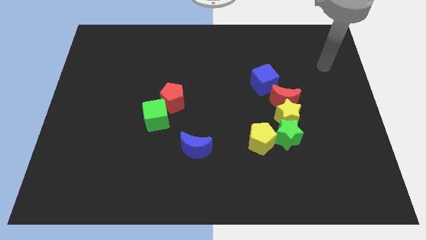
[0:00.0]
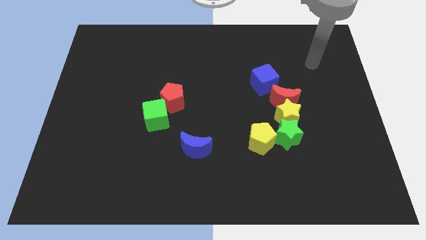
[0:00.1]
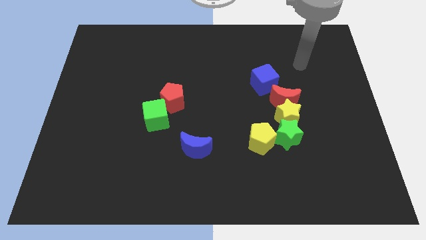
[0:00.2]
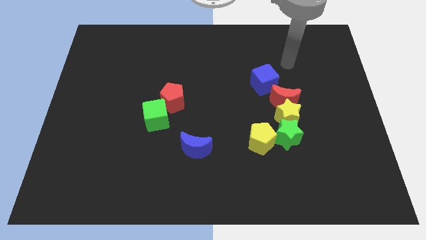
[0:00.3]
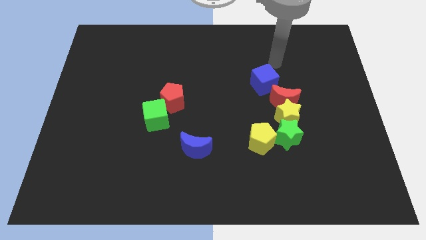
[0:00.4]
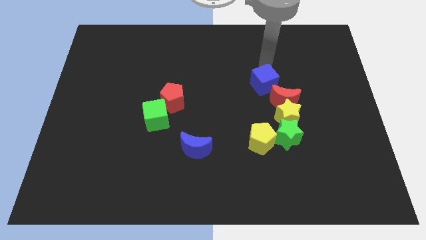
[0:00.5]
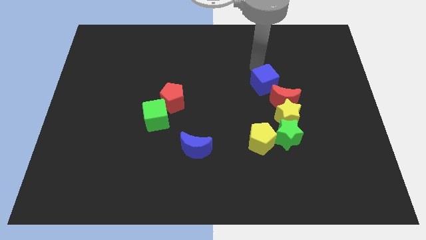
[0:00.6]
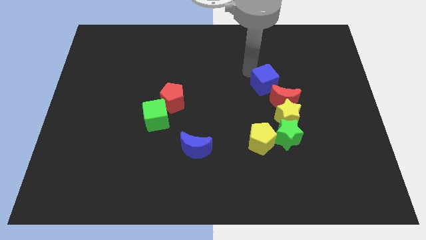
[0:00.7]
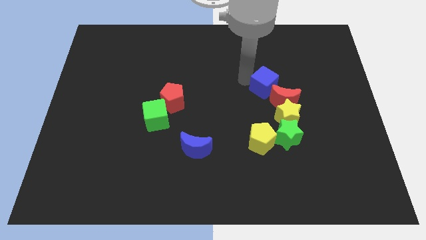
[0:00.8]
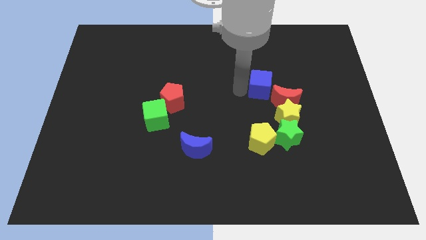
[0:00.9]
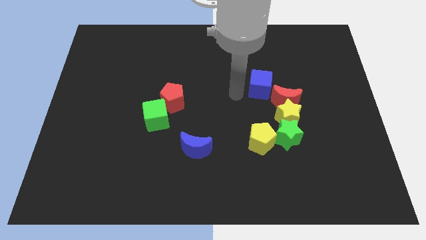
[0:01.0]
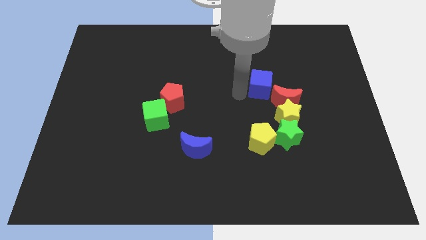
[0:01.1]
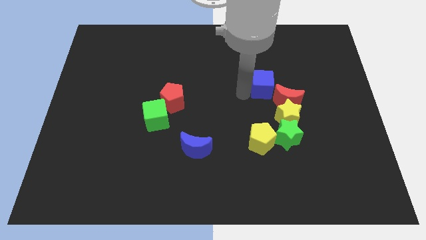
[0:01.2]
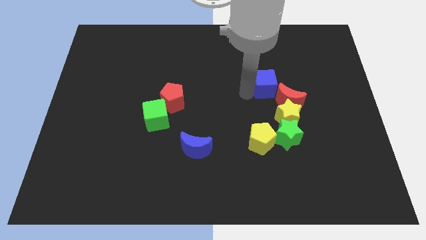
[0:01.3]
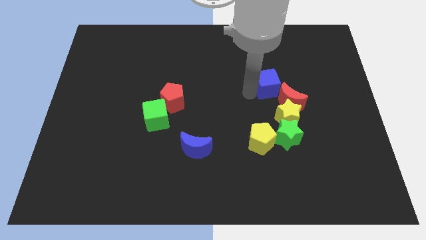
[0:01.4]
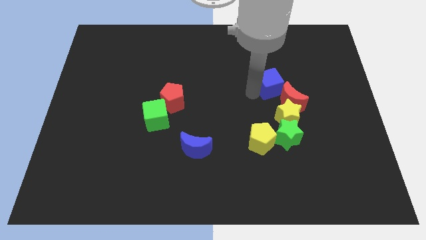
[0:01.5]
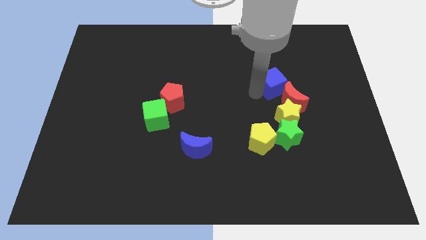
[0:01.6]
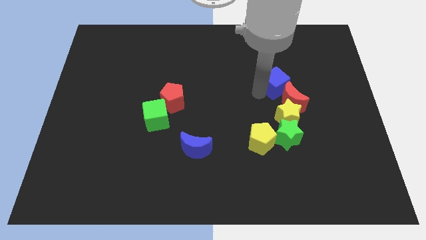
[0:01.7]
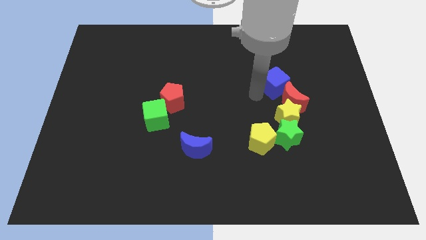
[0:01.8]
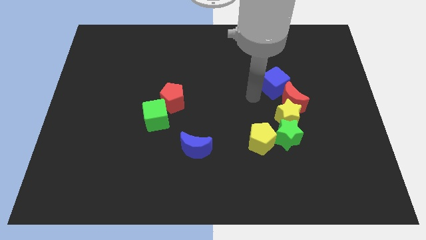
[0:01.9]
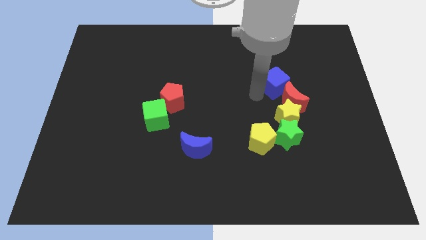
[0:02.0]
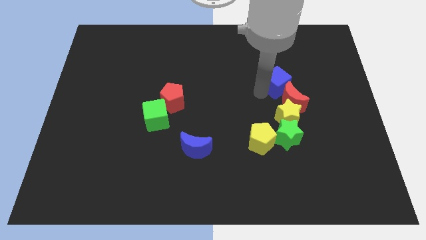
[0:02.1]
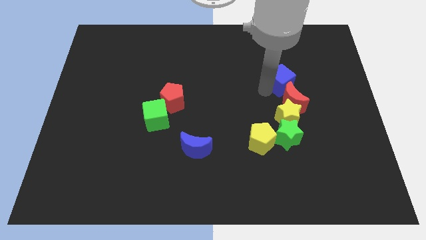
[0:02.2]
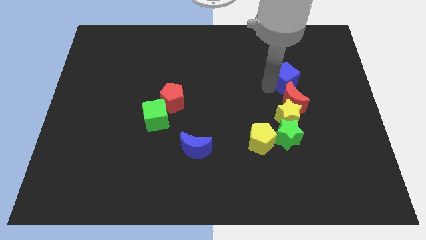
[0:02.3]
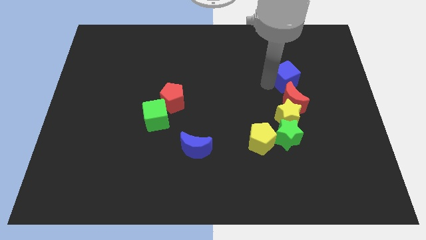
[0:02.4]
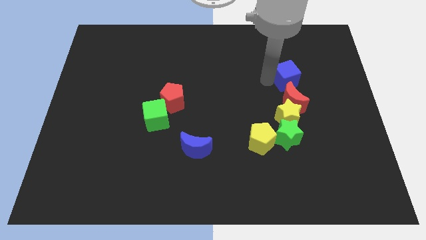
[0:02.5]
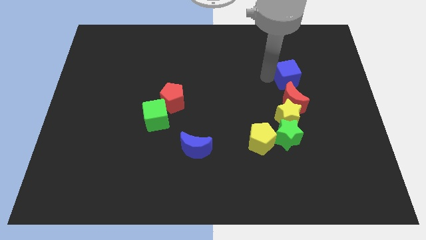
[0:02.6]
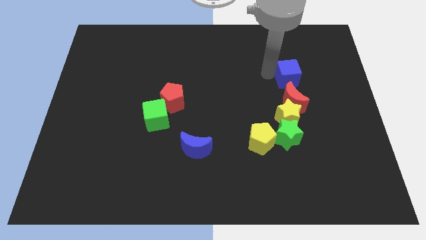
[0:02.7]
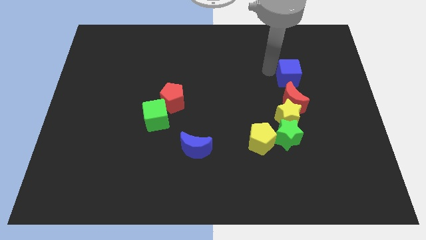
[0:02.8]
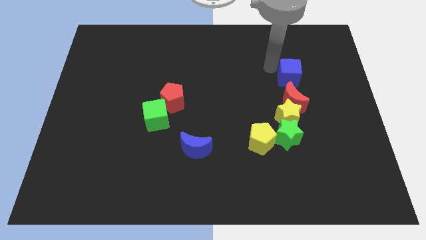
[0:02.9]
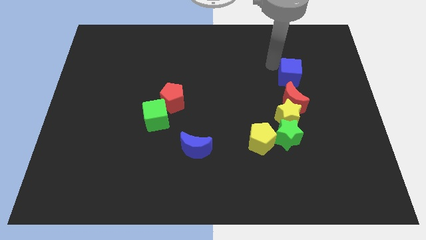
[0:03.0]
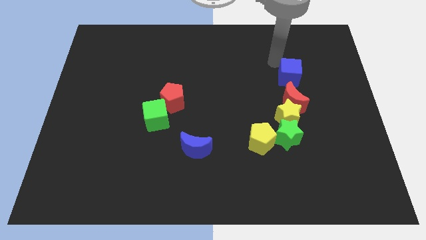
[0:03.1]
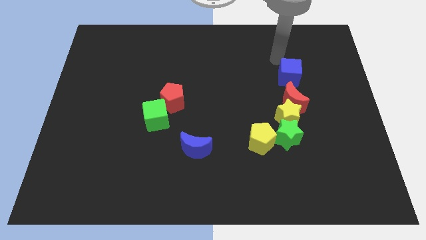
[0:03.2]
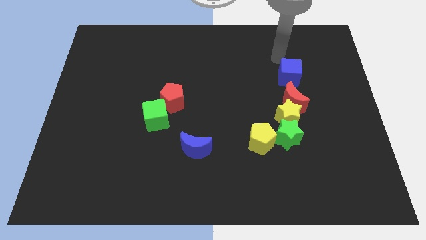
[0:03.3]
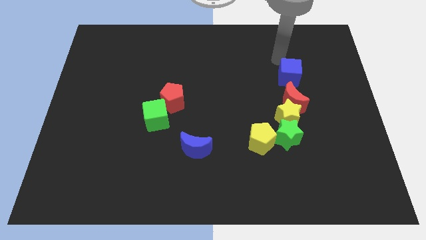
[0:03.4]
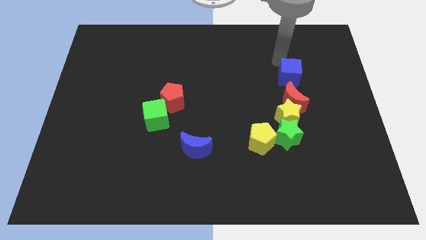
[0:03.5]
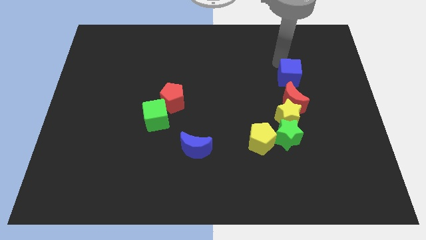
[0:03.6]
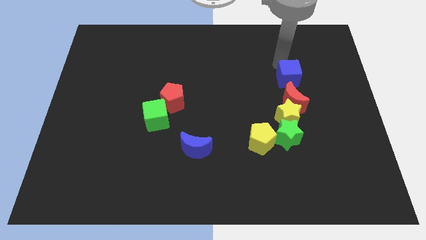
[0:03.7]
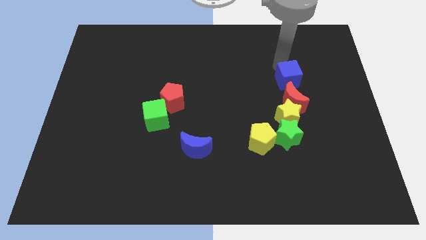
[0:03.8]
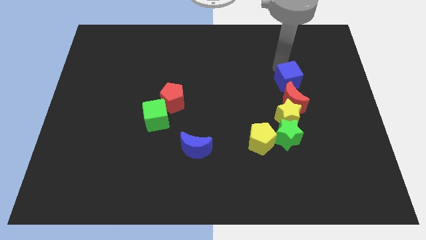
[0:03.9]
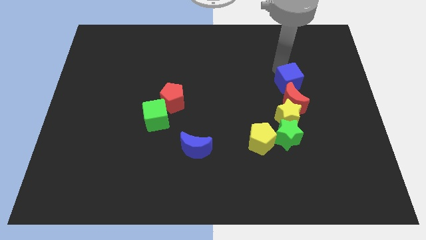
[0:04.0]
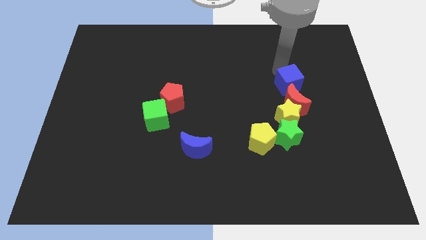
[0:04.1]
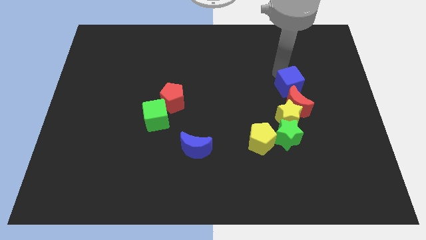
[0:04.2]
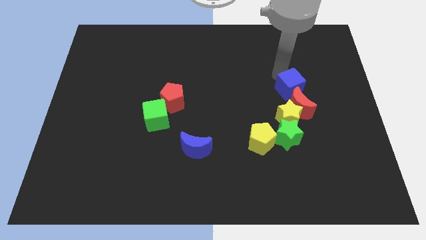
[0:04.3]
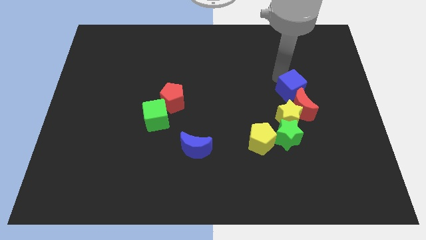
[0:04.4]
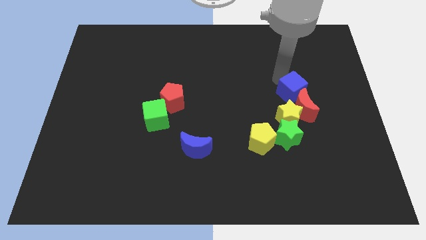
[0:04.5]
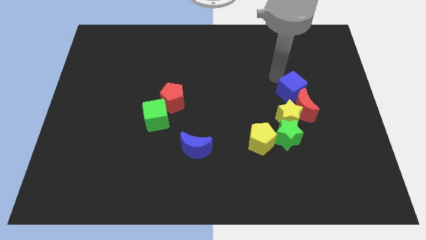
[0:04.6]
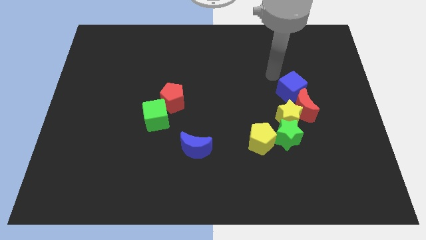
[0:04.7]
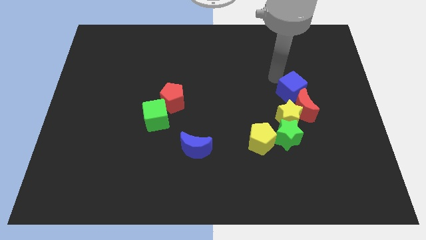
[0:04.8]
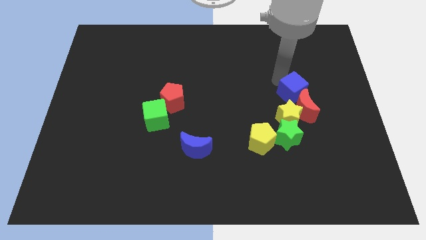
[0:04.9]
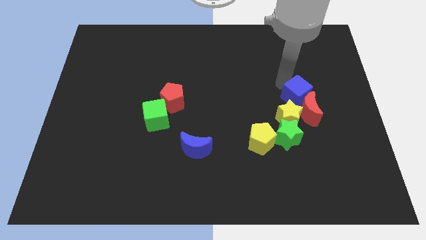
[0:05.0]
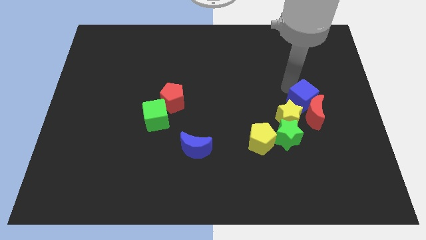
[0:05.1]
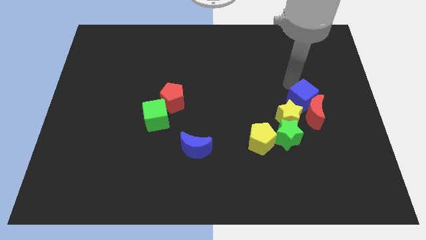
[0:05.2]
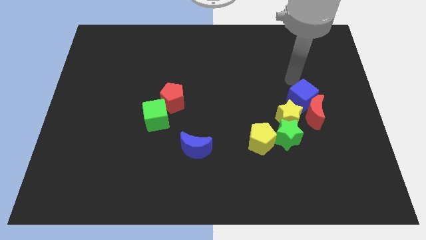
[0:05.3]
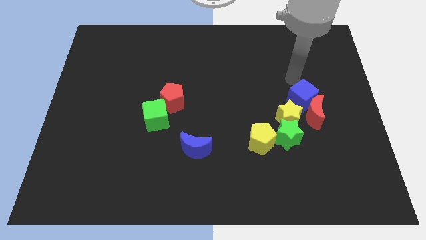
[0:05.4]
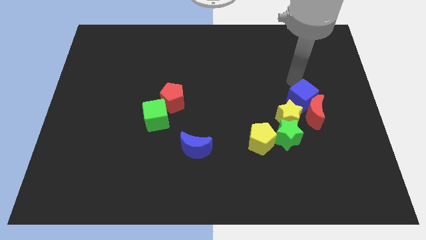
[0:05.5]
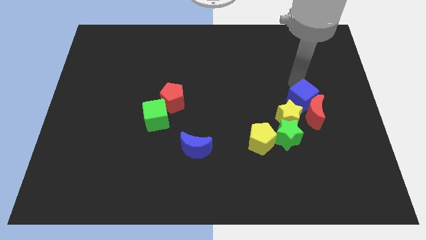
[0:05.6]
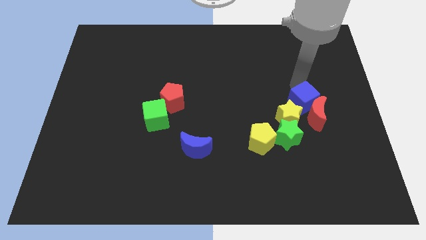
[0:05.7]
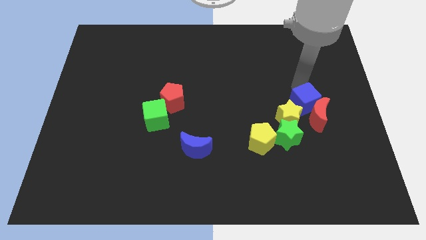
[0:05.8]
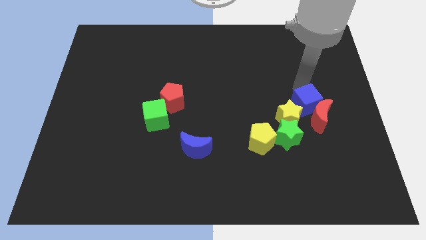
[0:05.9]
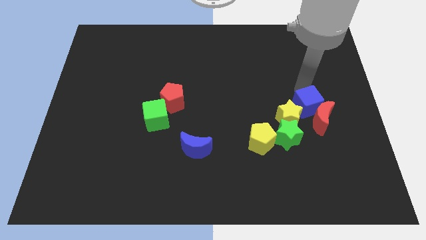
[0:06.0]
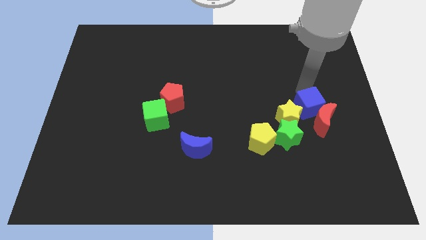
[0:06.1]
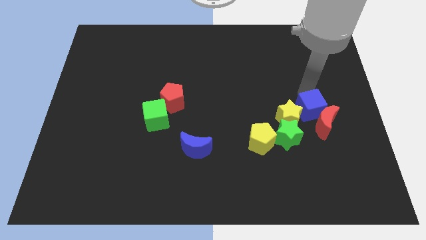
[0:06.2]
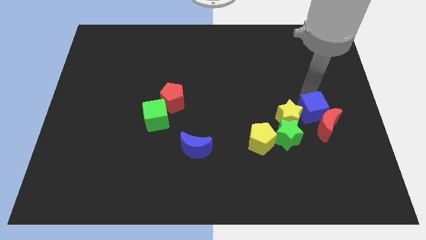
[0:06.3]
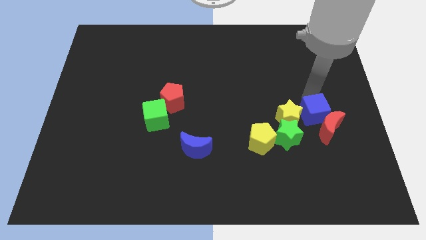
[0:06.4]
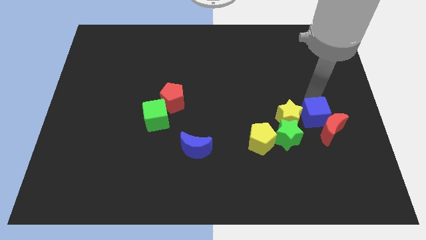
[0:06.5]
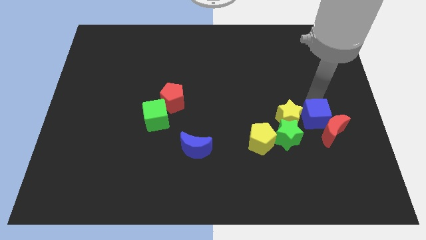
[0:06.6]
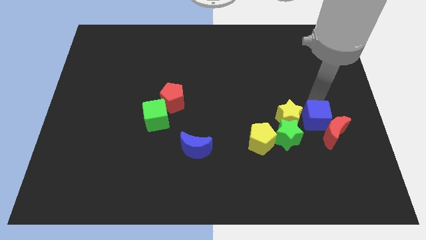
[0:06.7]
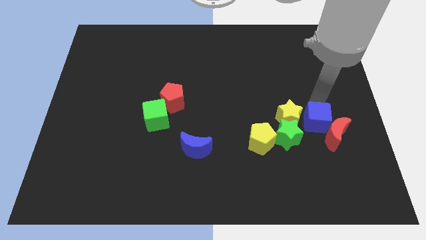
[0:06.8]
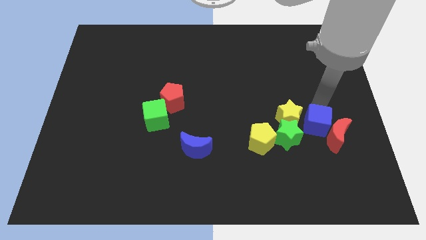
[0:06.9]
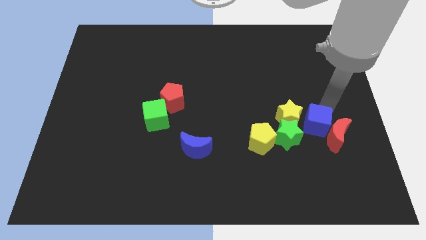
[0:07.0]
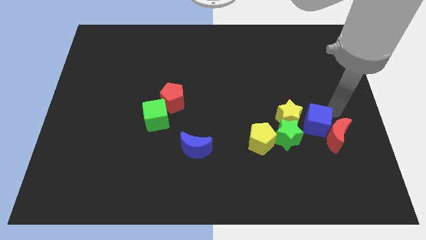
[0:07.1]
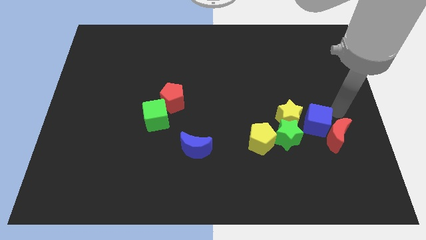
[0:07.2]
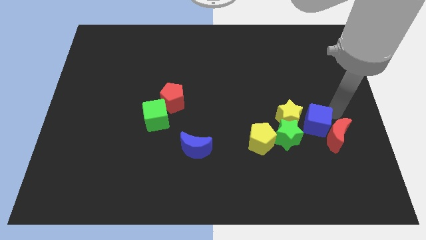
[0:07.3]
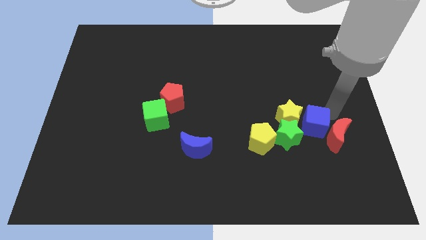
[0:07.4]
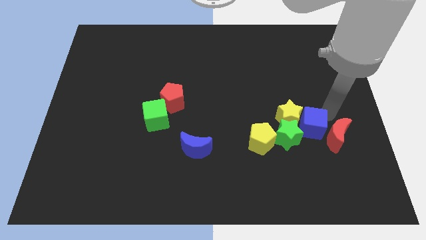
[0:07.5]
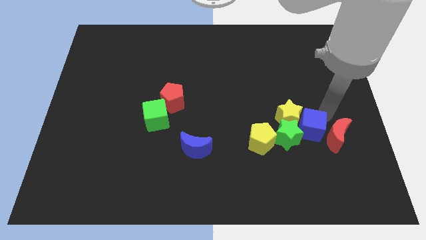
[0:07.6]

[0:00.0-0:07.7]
slide the blue cube close to the green star
